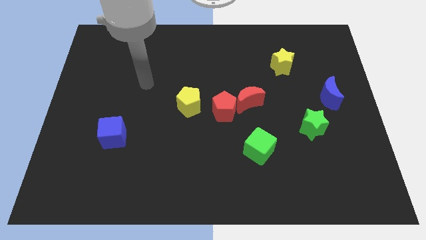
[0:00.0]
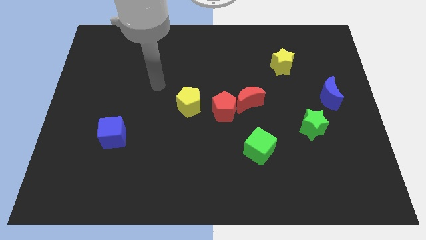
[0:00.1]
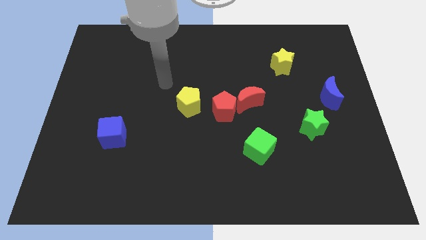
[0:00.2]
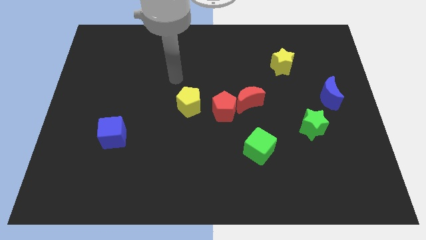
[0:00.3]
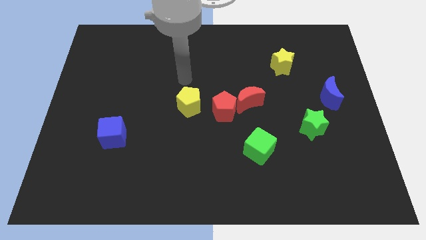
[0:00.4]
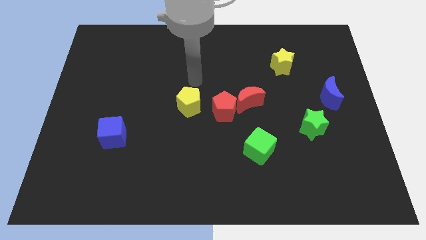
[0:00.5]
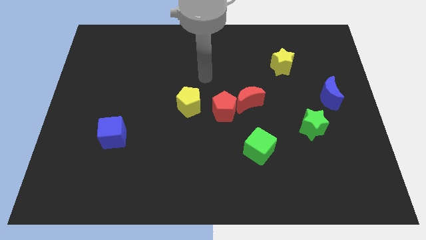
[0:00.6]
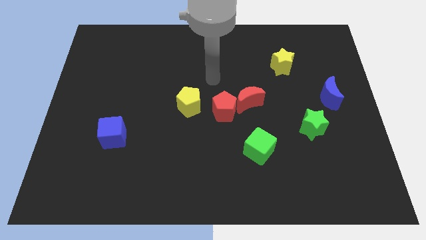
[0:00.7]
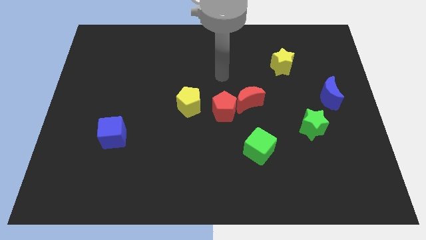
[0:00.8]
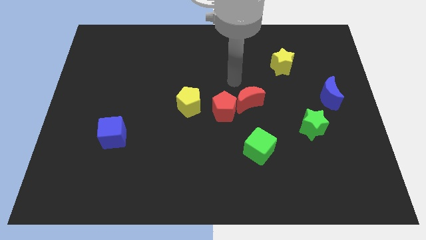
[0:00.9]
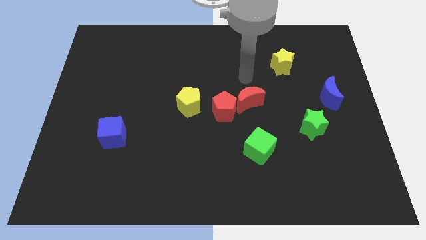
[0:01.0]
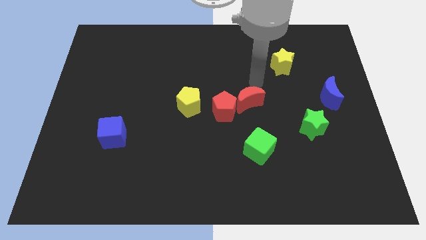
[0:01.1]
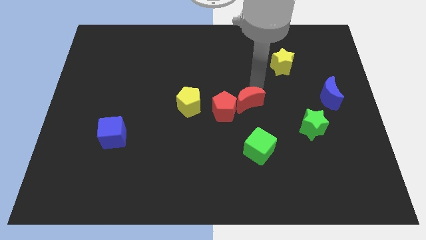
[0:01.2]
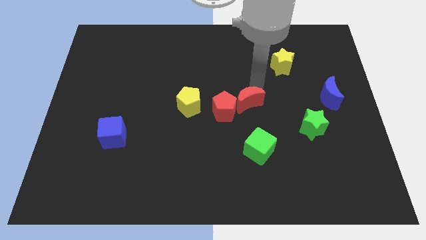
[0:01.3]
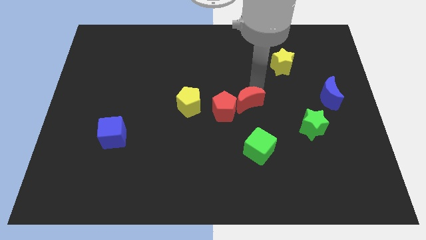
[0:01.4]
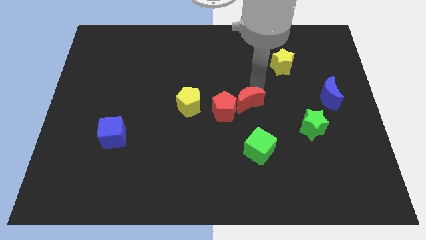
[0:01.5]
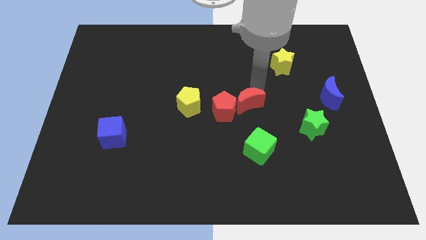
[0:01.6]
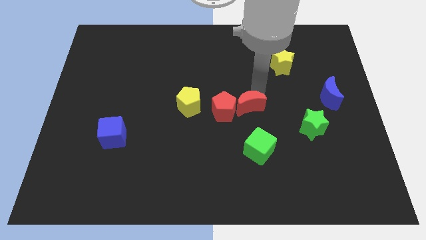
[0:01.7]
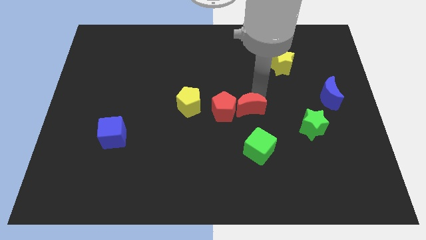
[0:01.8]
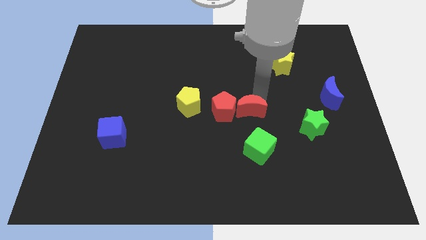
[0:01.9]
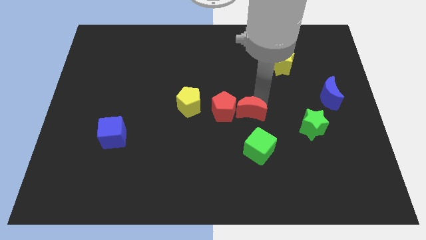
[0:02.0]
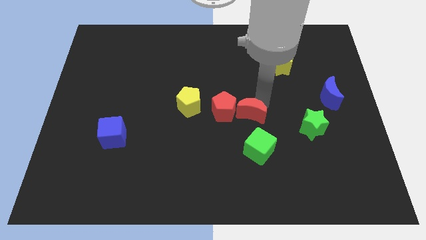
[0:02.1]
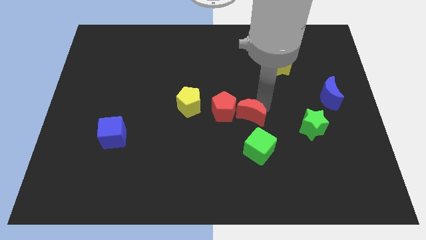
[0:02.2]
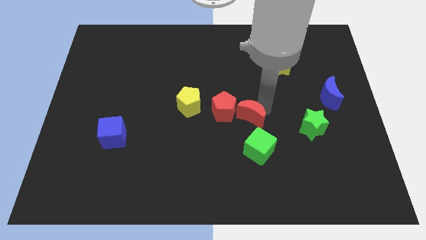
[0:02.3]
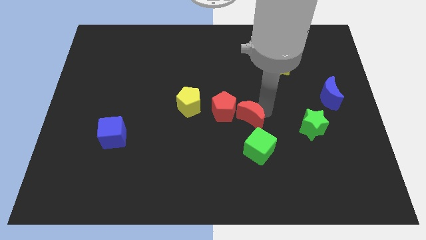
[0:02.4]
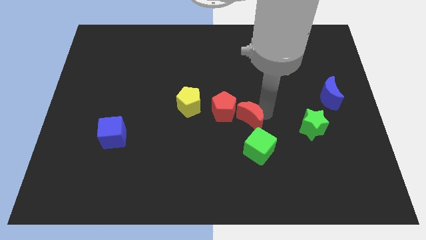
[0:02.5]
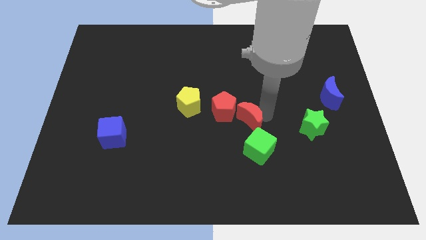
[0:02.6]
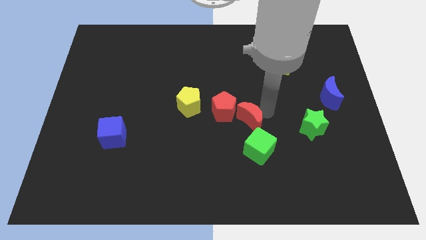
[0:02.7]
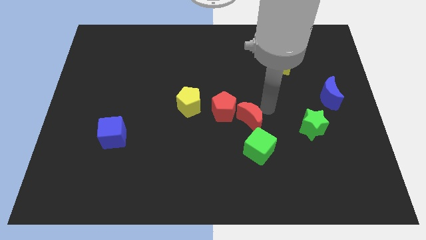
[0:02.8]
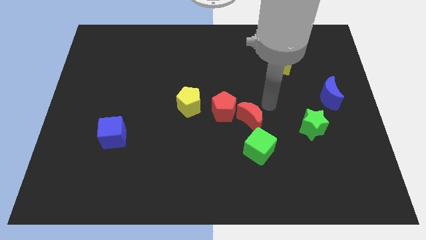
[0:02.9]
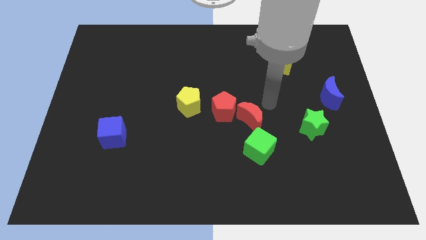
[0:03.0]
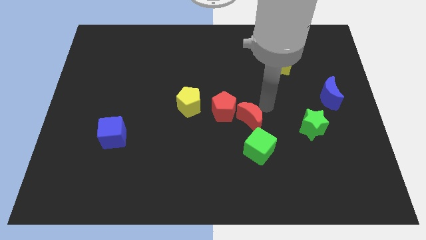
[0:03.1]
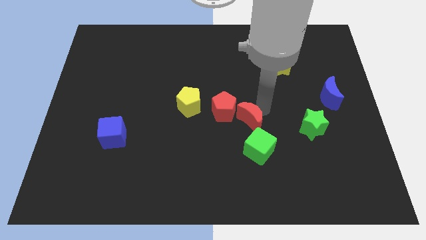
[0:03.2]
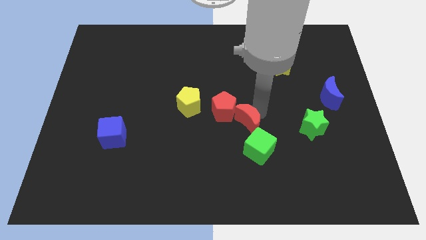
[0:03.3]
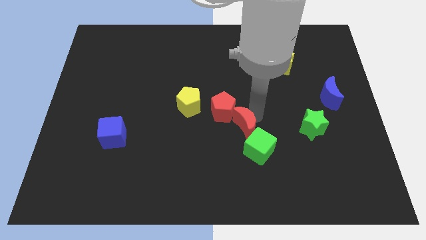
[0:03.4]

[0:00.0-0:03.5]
slightly push the red moon down

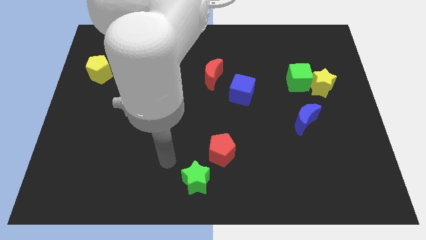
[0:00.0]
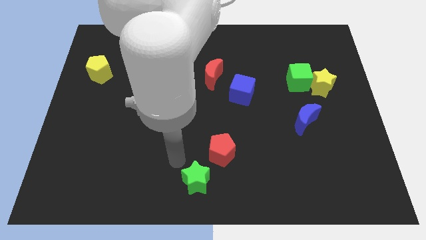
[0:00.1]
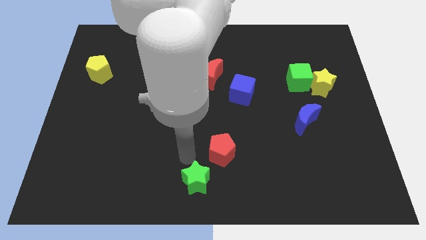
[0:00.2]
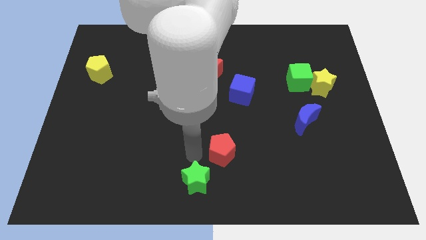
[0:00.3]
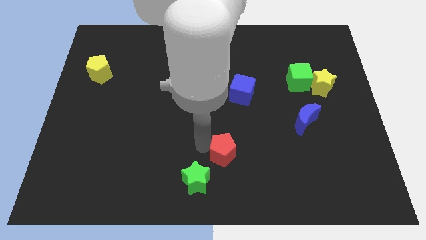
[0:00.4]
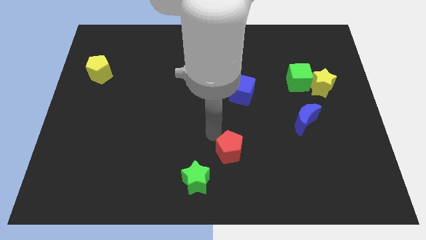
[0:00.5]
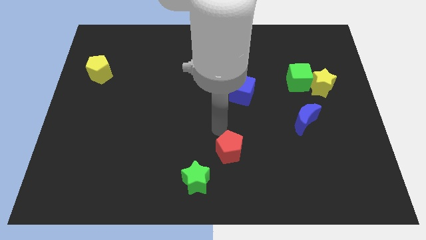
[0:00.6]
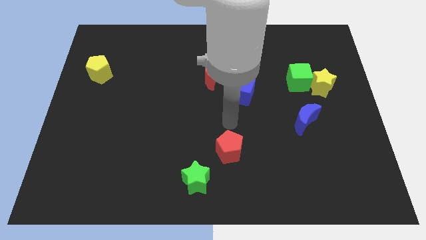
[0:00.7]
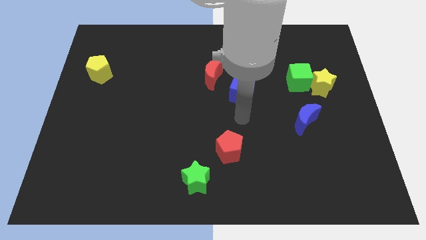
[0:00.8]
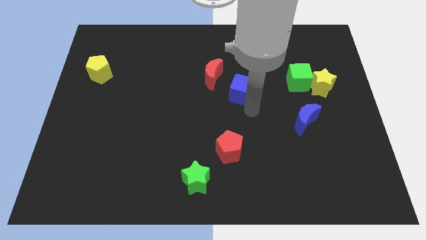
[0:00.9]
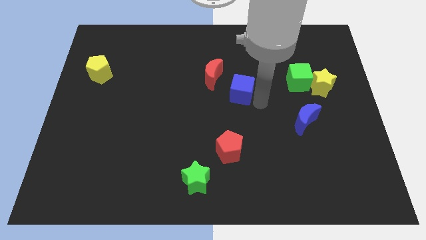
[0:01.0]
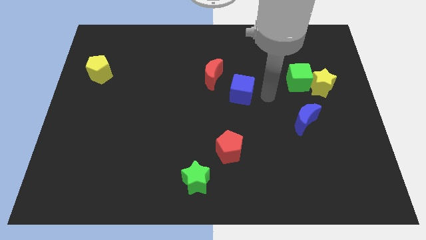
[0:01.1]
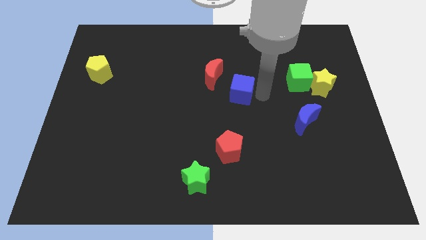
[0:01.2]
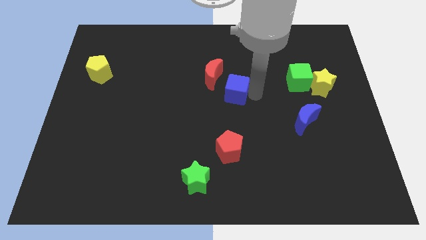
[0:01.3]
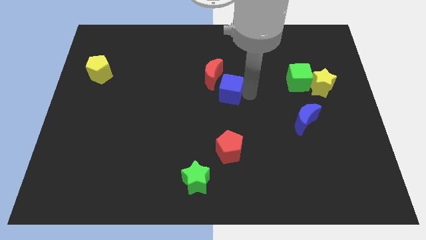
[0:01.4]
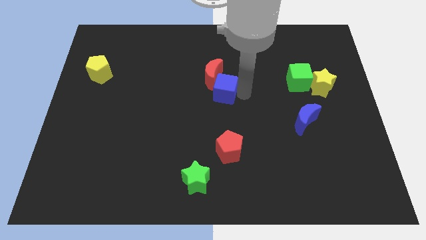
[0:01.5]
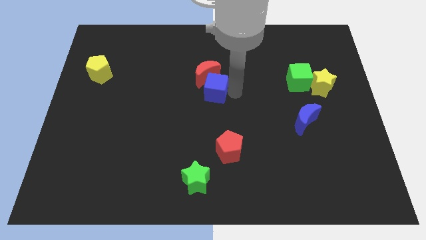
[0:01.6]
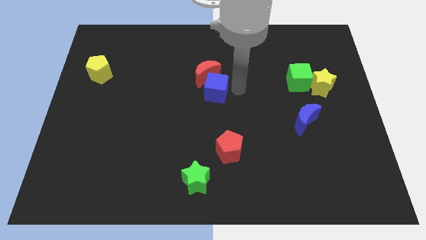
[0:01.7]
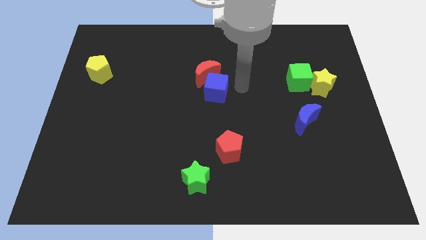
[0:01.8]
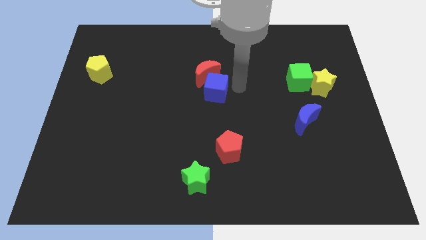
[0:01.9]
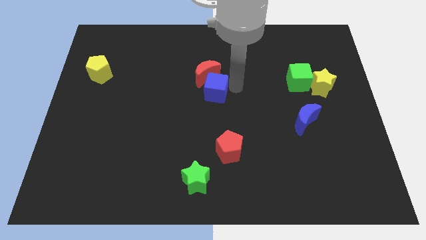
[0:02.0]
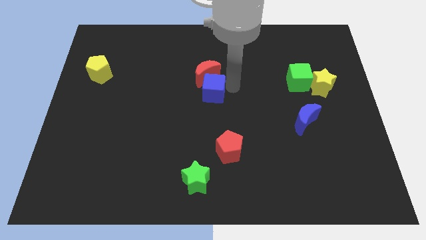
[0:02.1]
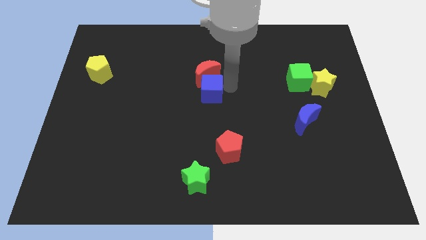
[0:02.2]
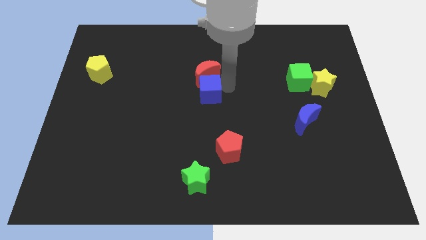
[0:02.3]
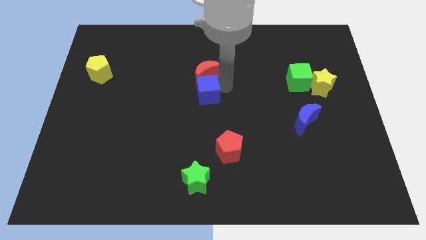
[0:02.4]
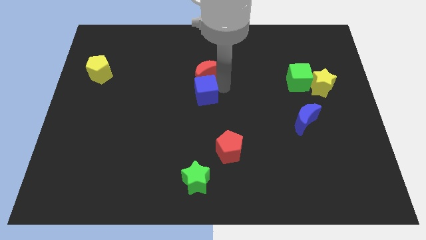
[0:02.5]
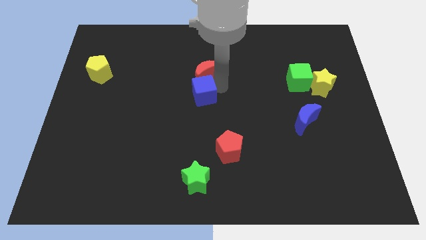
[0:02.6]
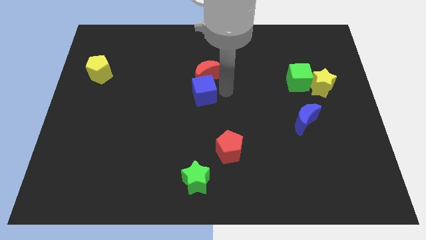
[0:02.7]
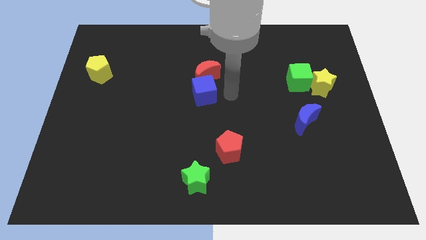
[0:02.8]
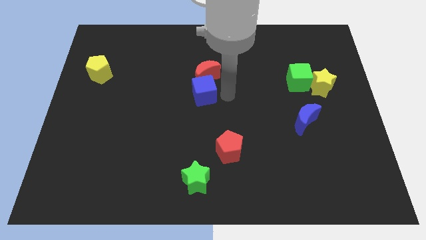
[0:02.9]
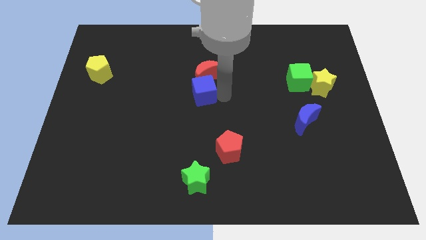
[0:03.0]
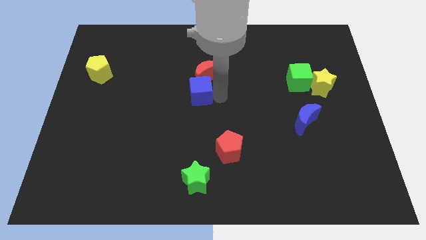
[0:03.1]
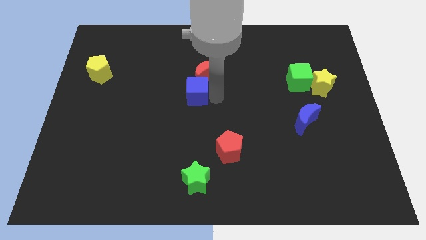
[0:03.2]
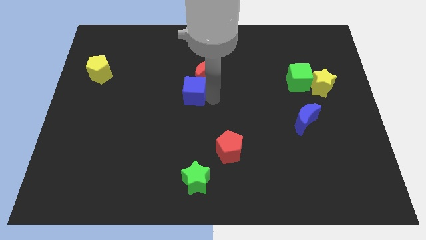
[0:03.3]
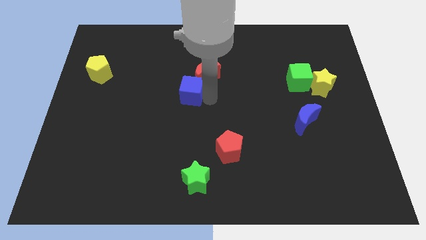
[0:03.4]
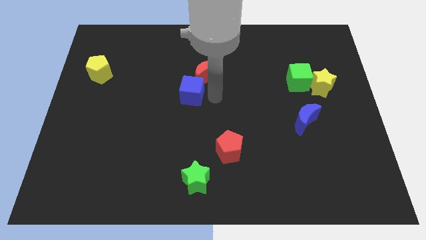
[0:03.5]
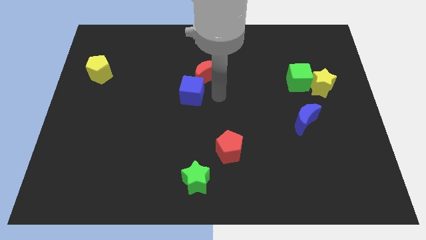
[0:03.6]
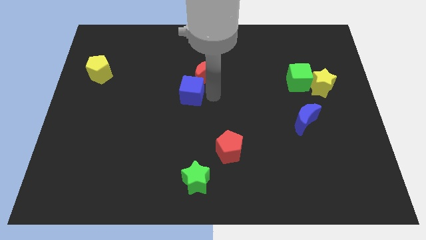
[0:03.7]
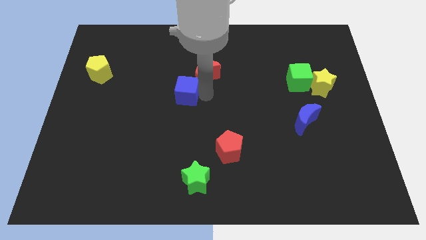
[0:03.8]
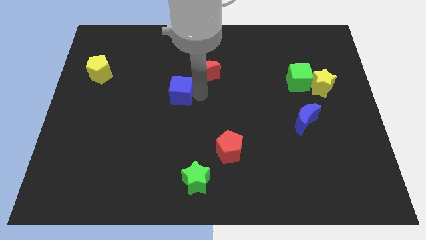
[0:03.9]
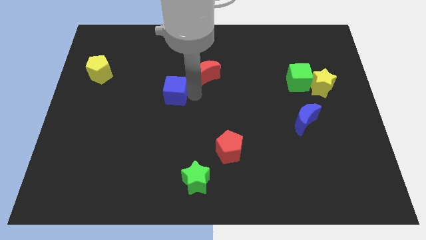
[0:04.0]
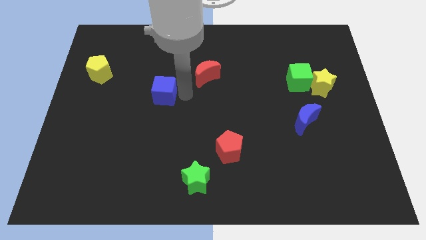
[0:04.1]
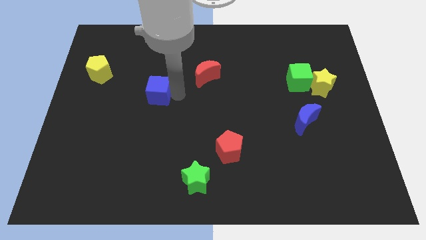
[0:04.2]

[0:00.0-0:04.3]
push the blue cube left

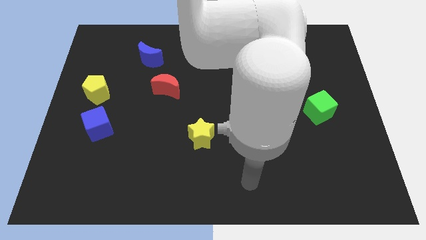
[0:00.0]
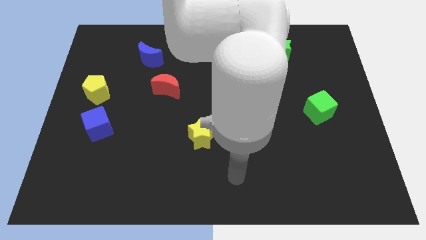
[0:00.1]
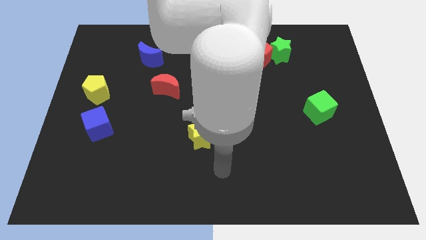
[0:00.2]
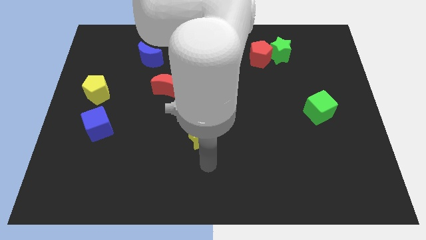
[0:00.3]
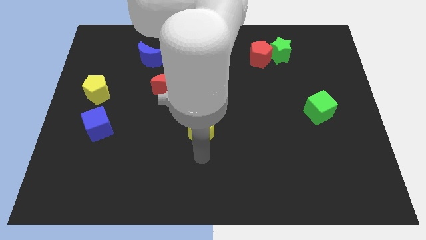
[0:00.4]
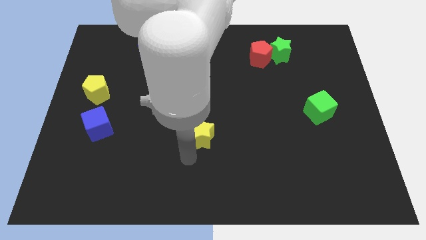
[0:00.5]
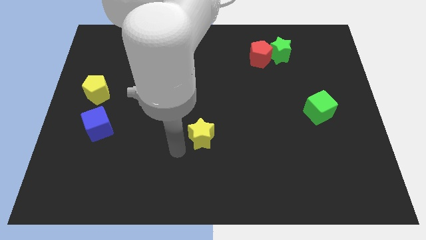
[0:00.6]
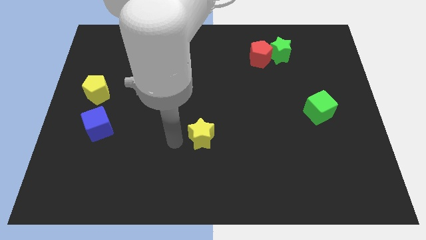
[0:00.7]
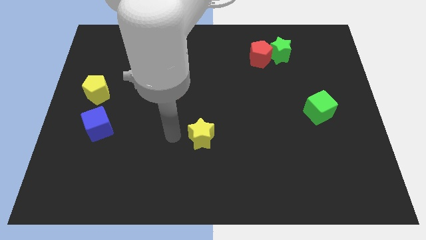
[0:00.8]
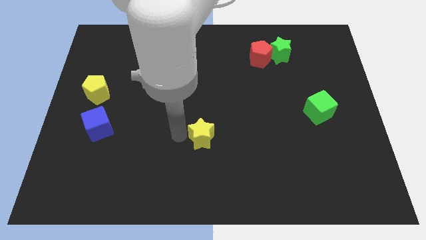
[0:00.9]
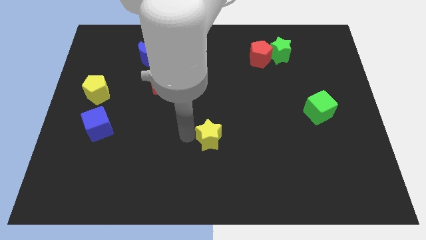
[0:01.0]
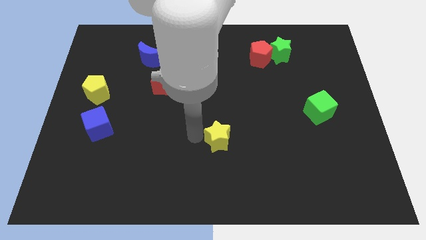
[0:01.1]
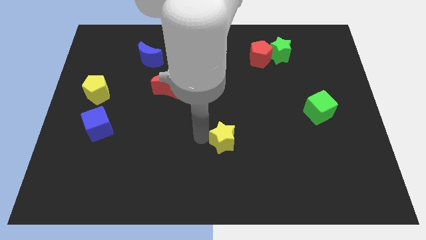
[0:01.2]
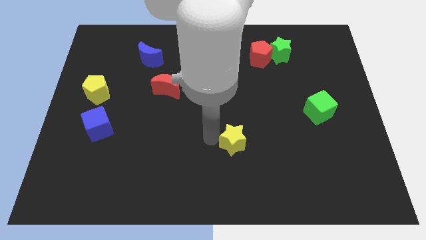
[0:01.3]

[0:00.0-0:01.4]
slightly slide the yellow star to the right
